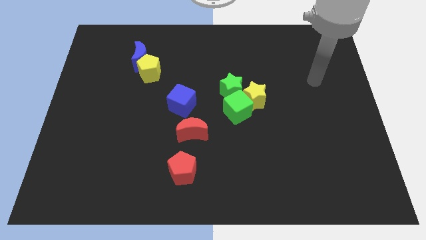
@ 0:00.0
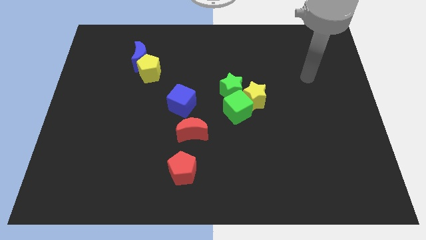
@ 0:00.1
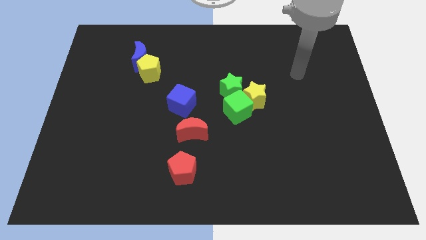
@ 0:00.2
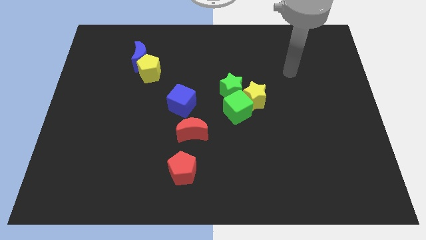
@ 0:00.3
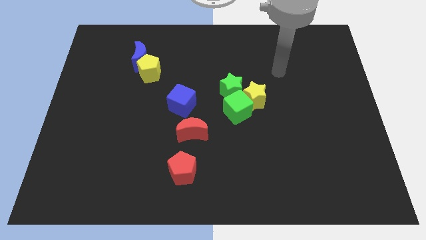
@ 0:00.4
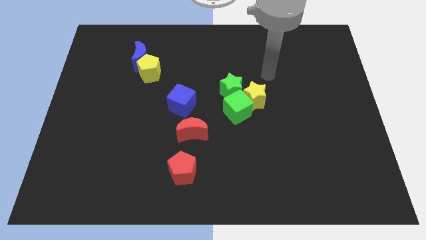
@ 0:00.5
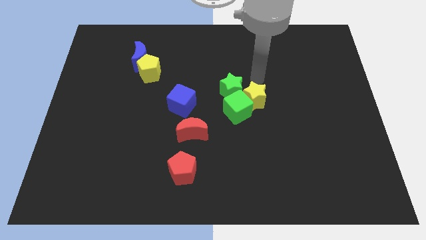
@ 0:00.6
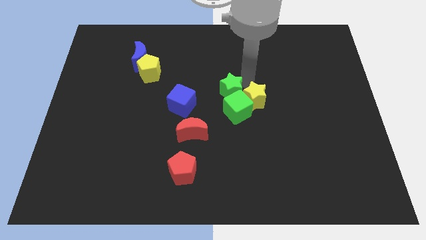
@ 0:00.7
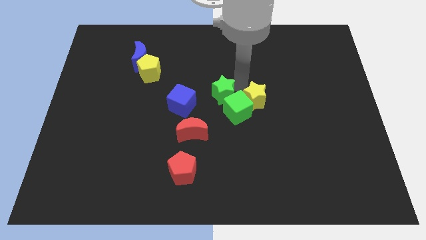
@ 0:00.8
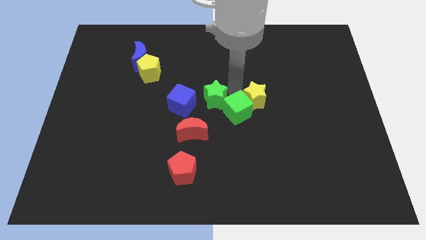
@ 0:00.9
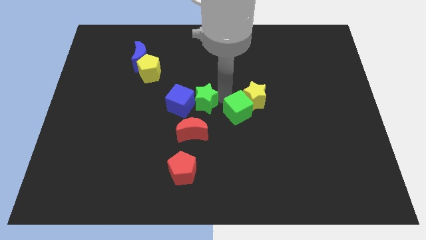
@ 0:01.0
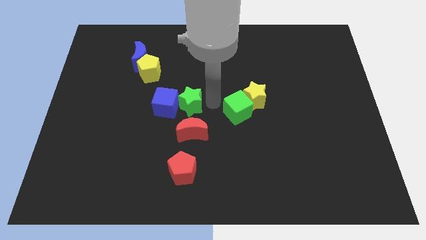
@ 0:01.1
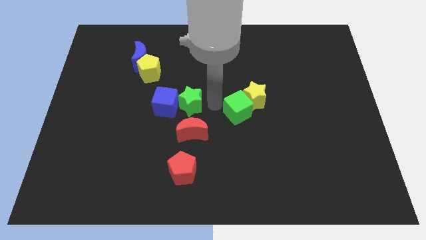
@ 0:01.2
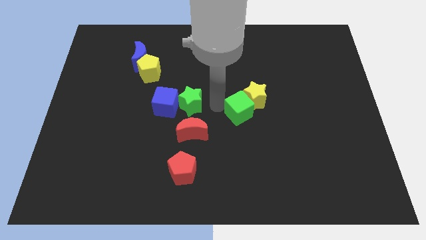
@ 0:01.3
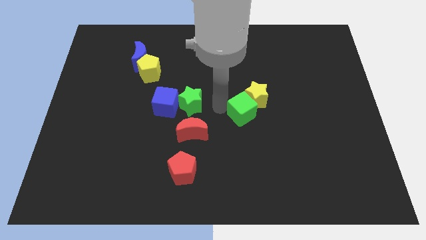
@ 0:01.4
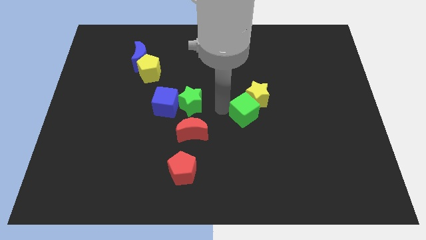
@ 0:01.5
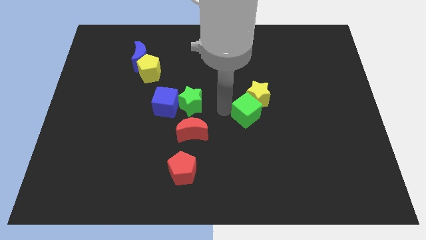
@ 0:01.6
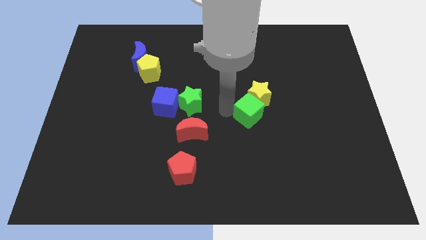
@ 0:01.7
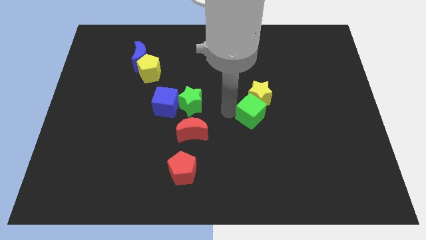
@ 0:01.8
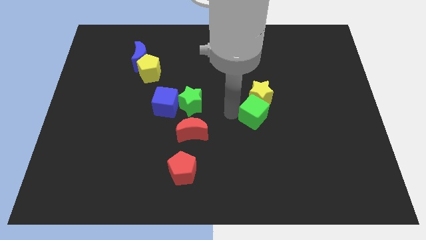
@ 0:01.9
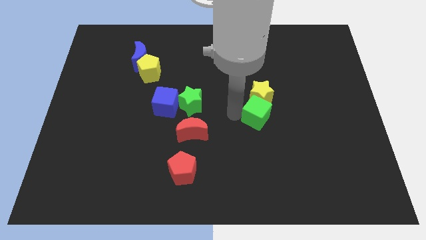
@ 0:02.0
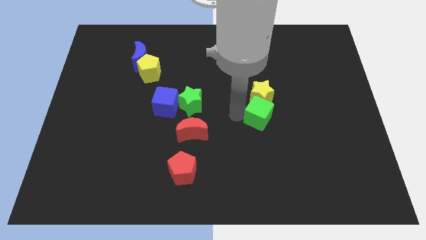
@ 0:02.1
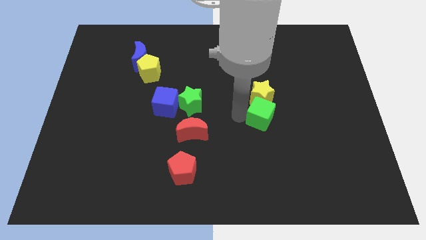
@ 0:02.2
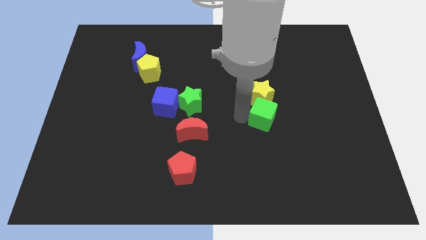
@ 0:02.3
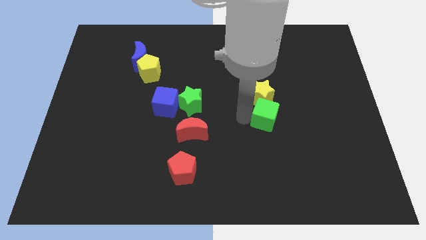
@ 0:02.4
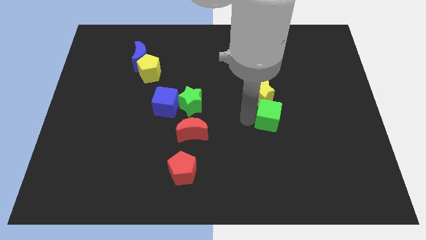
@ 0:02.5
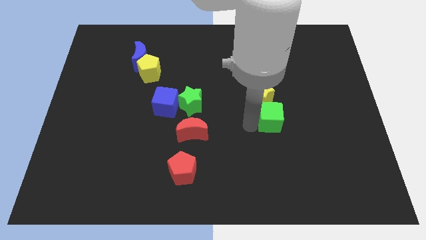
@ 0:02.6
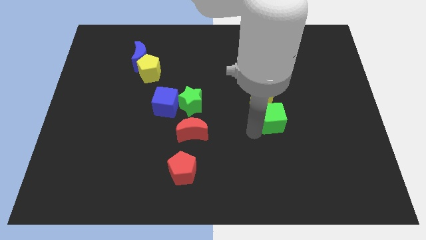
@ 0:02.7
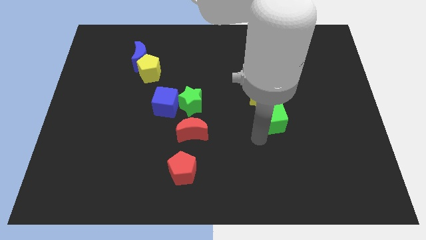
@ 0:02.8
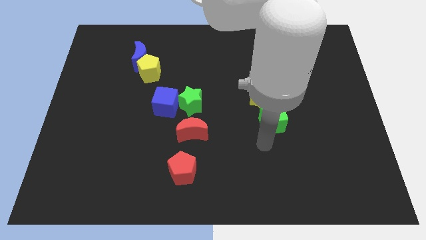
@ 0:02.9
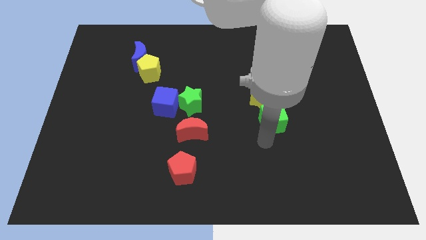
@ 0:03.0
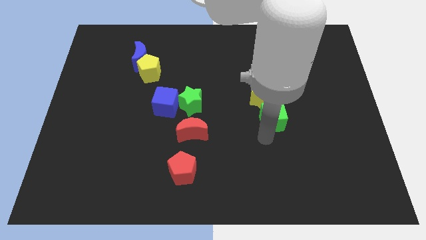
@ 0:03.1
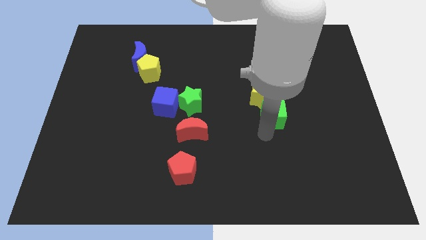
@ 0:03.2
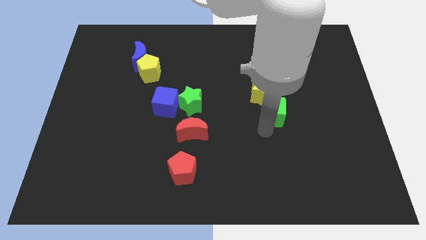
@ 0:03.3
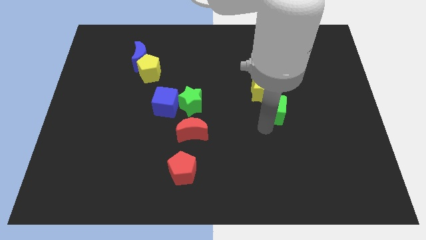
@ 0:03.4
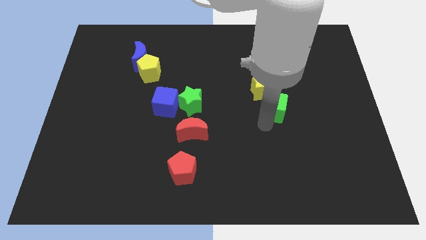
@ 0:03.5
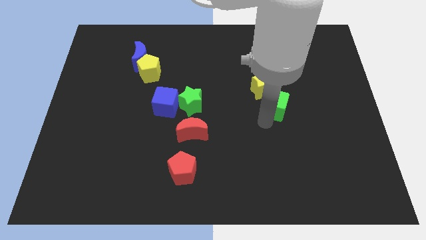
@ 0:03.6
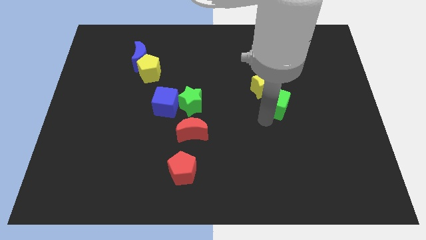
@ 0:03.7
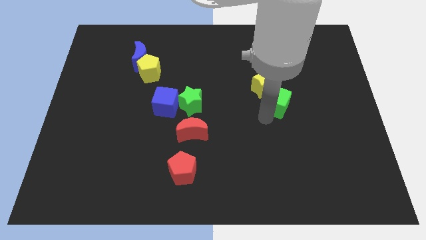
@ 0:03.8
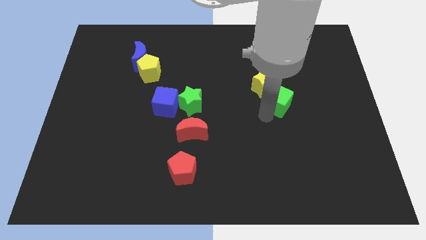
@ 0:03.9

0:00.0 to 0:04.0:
push the green cube upwards and then right slightly

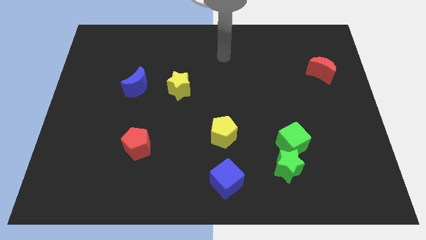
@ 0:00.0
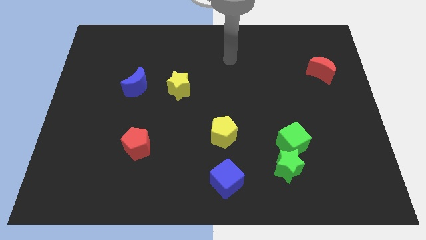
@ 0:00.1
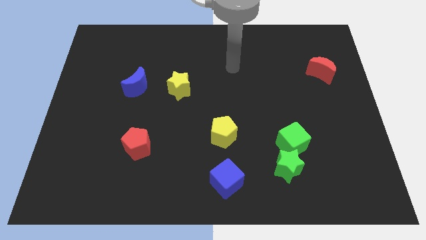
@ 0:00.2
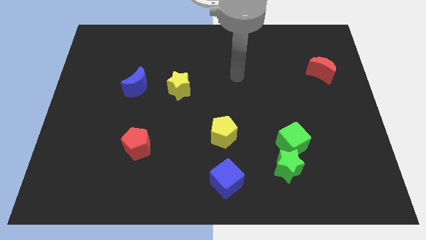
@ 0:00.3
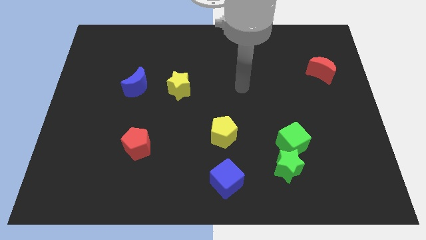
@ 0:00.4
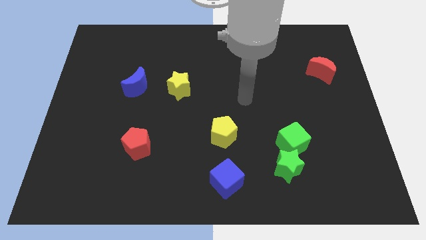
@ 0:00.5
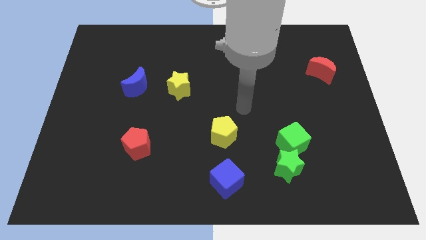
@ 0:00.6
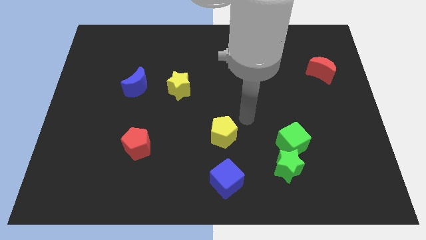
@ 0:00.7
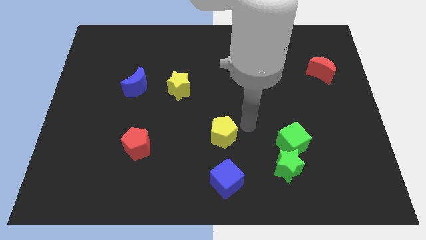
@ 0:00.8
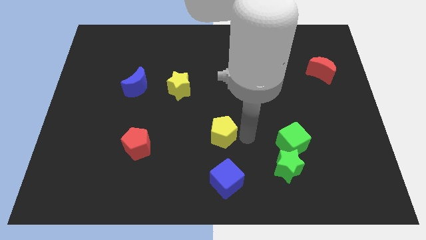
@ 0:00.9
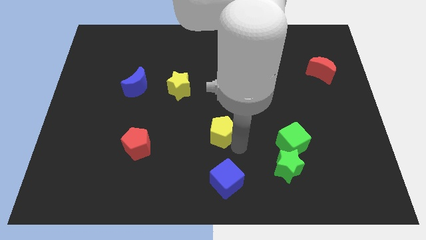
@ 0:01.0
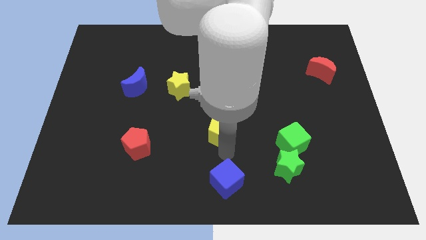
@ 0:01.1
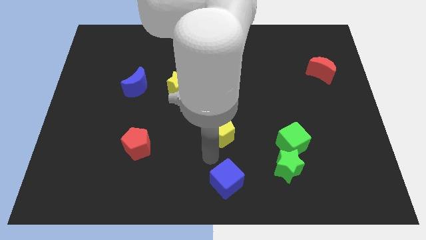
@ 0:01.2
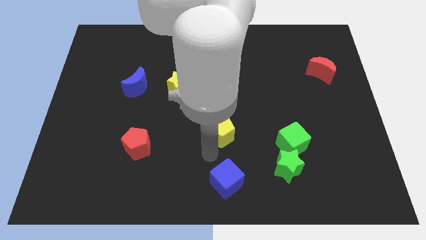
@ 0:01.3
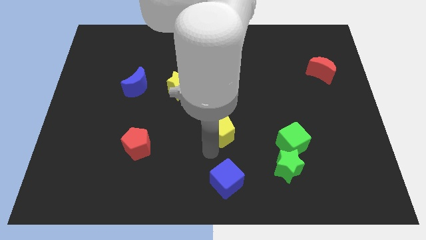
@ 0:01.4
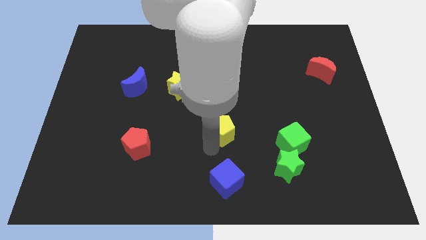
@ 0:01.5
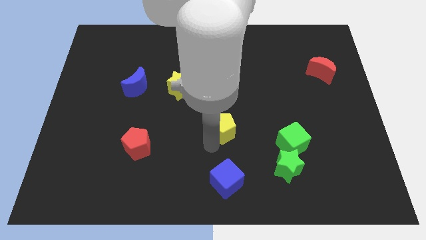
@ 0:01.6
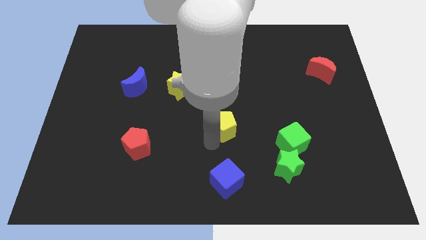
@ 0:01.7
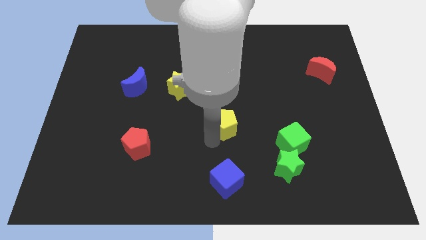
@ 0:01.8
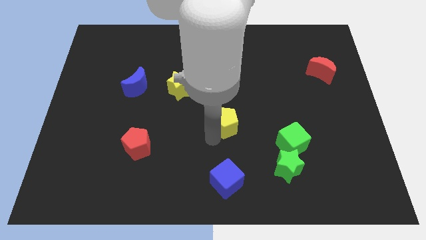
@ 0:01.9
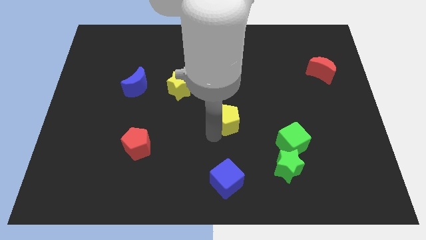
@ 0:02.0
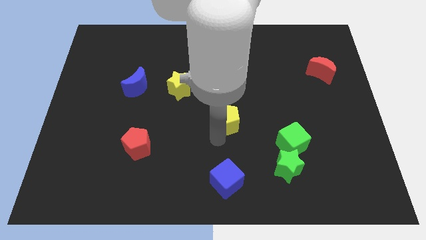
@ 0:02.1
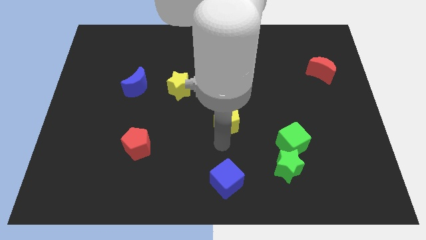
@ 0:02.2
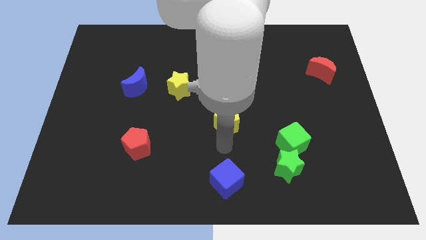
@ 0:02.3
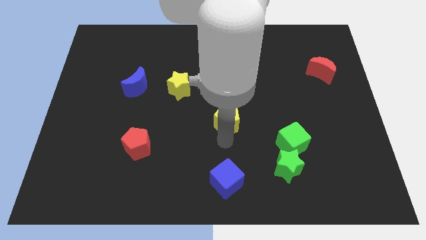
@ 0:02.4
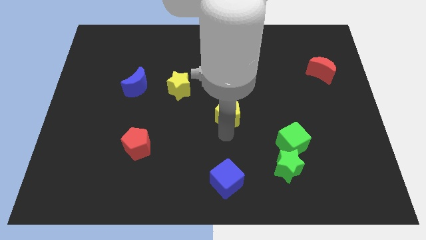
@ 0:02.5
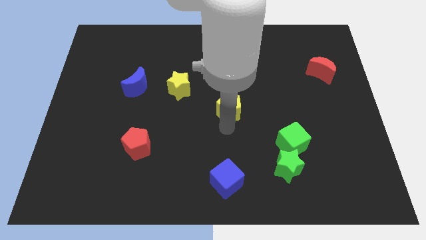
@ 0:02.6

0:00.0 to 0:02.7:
slide the yellow pentagon upwards a little bit

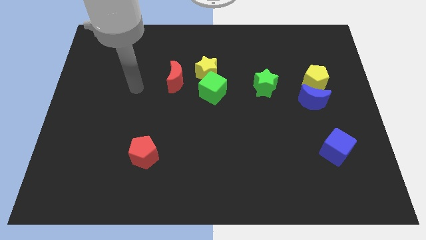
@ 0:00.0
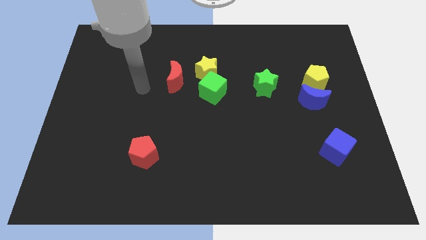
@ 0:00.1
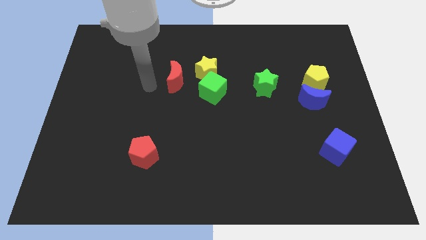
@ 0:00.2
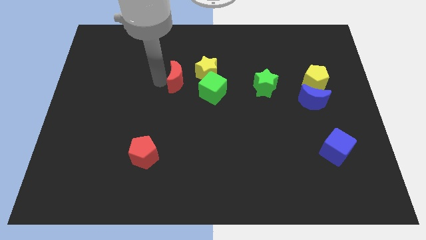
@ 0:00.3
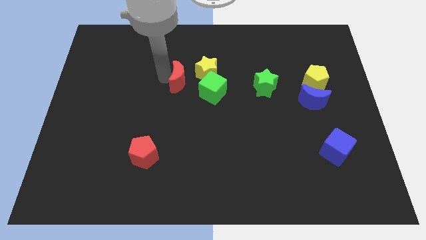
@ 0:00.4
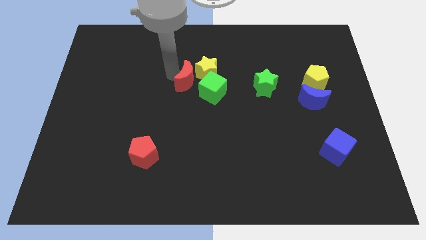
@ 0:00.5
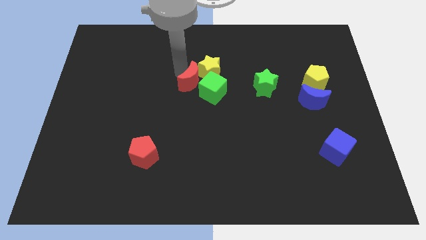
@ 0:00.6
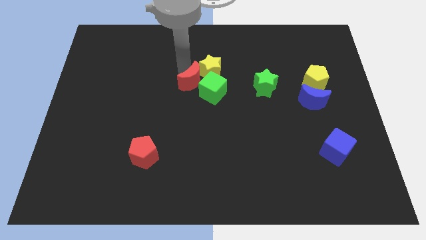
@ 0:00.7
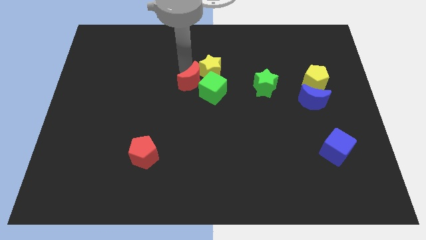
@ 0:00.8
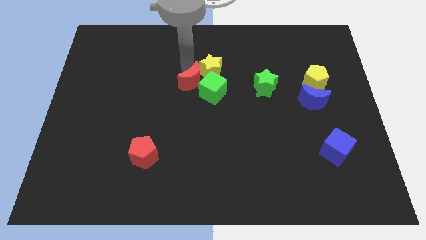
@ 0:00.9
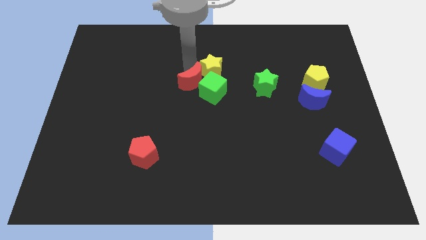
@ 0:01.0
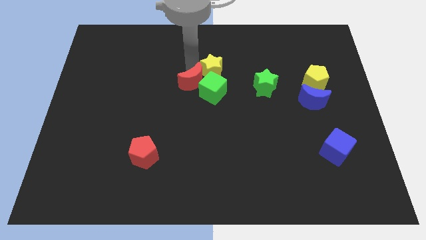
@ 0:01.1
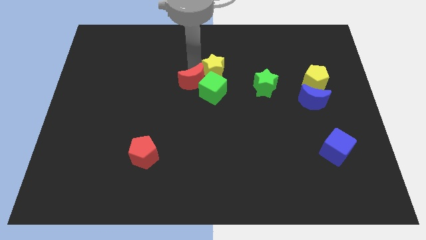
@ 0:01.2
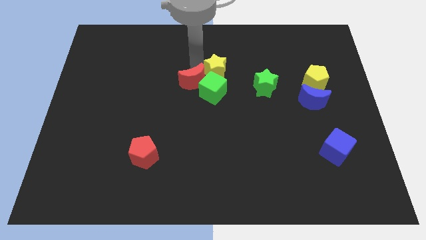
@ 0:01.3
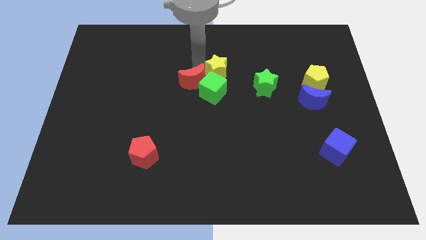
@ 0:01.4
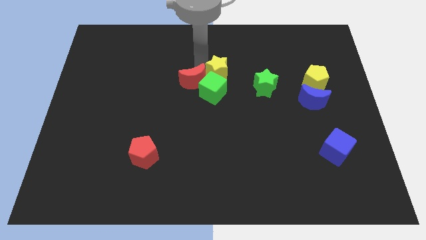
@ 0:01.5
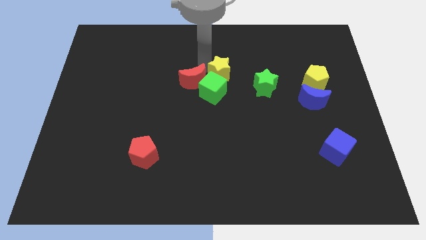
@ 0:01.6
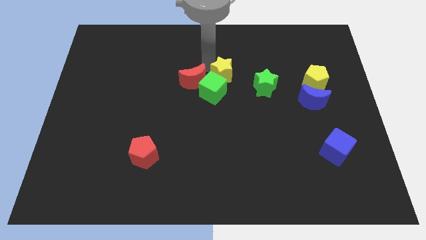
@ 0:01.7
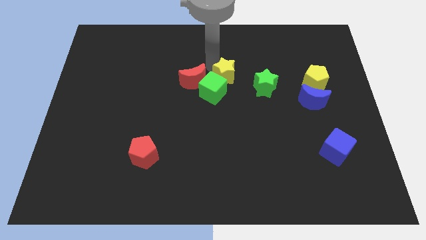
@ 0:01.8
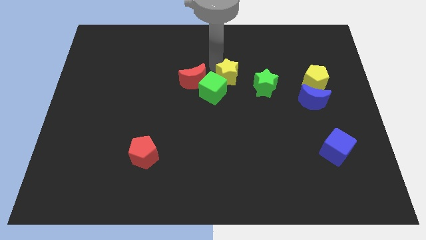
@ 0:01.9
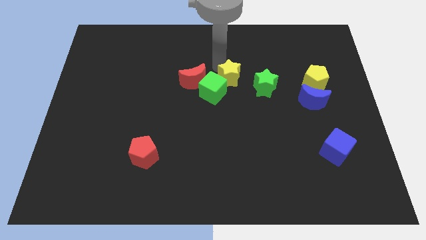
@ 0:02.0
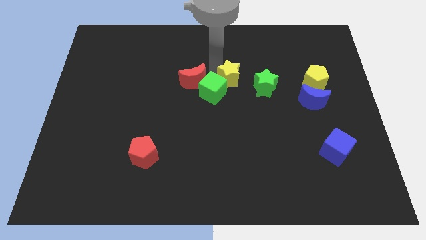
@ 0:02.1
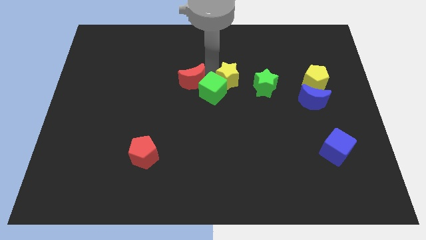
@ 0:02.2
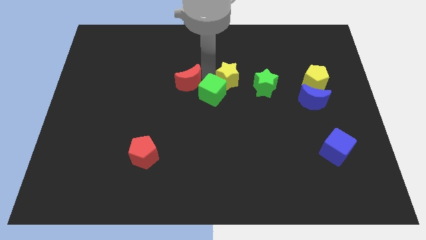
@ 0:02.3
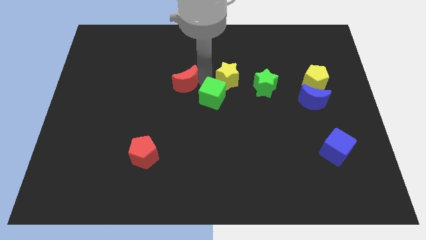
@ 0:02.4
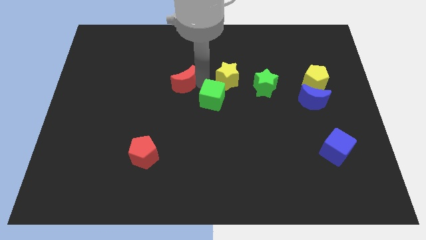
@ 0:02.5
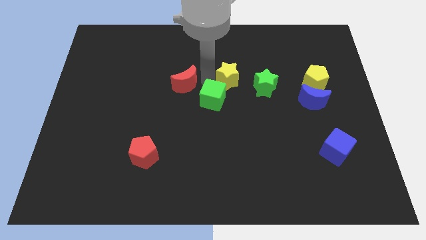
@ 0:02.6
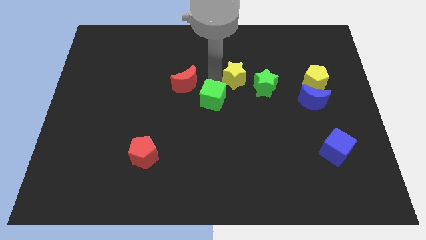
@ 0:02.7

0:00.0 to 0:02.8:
move the yellow star a little to the right
